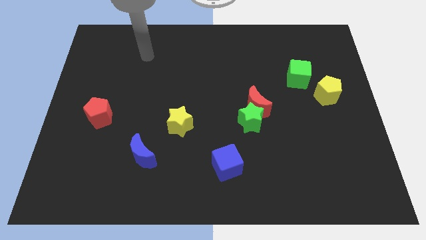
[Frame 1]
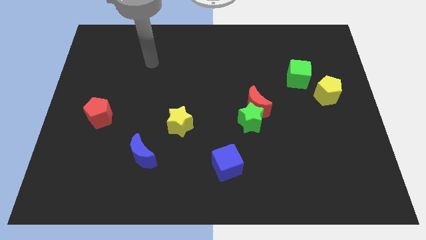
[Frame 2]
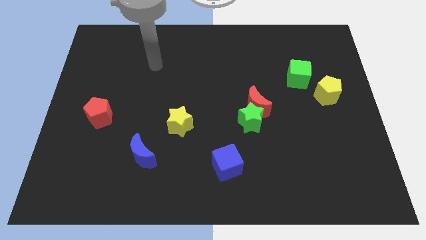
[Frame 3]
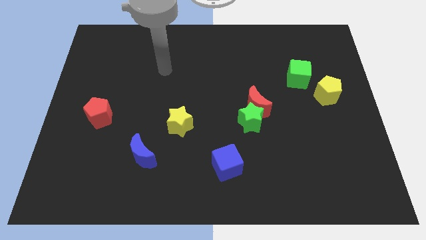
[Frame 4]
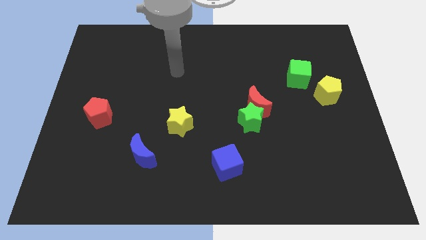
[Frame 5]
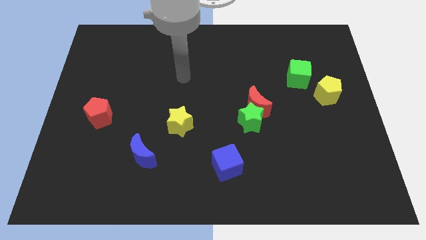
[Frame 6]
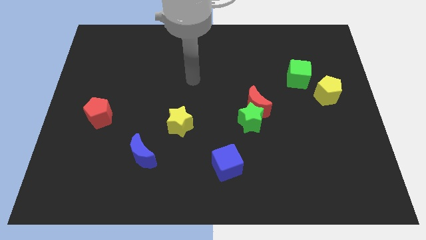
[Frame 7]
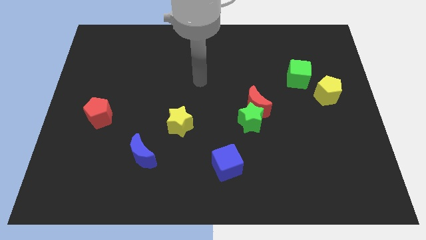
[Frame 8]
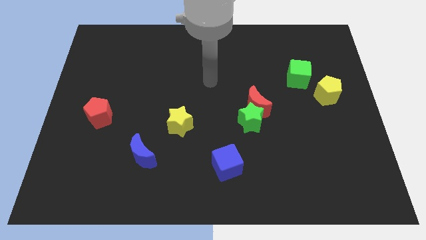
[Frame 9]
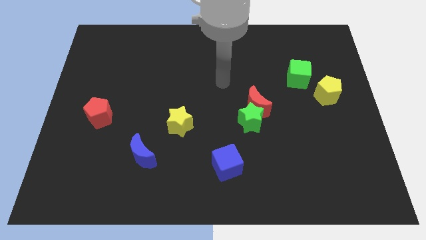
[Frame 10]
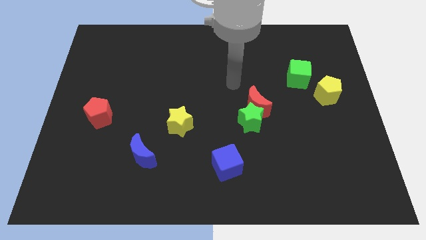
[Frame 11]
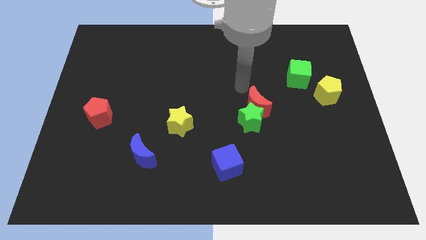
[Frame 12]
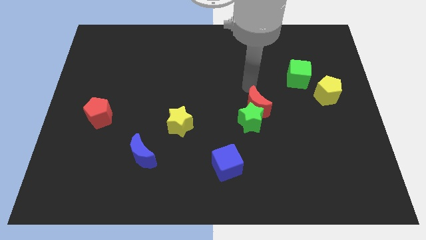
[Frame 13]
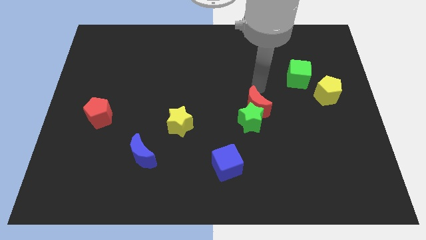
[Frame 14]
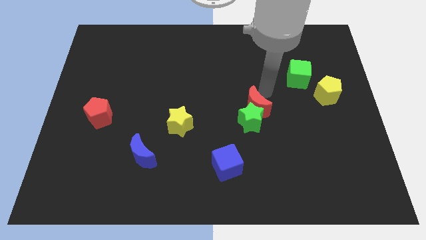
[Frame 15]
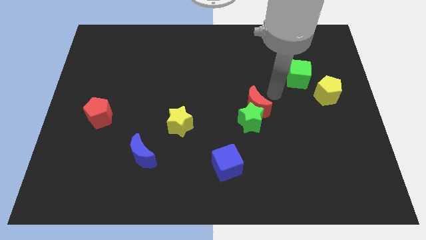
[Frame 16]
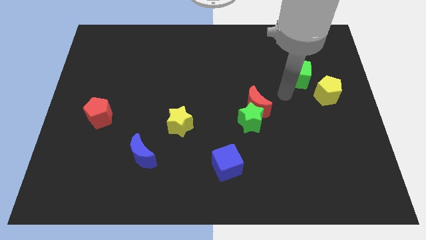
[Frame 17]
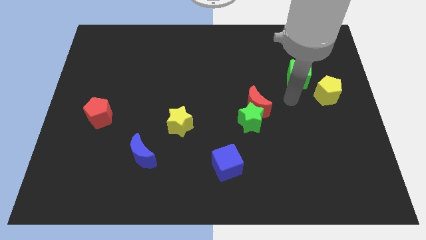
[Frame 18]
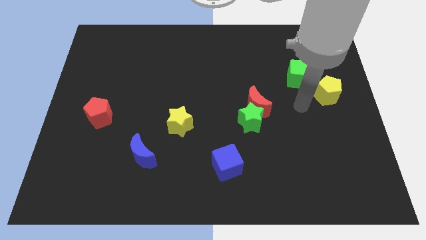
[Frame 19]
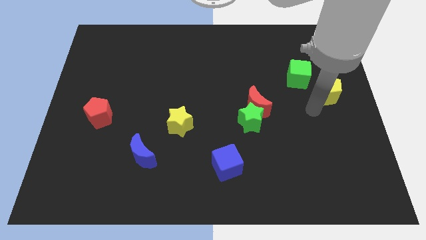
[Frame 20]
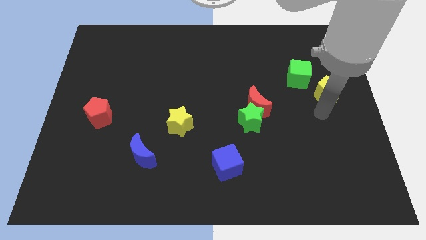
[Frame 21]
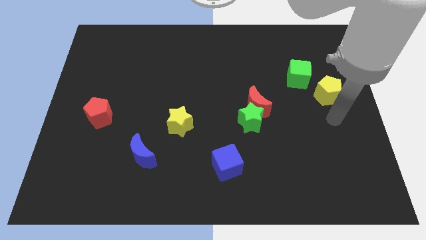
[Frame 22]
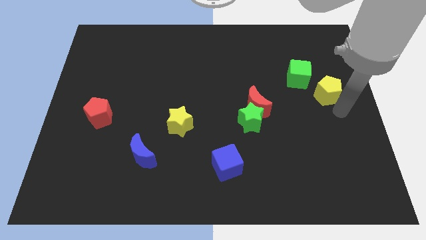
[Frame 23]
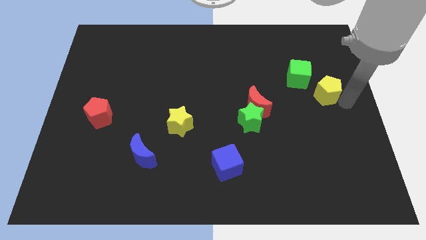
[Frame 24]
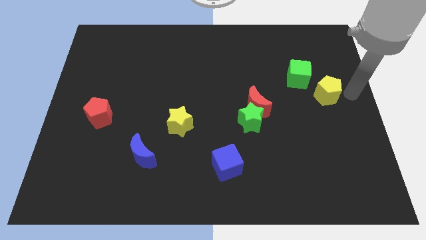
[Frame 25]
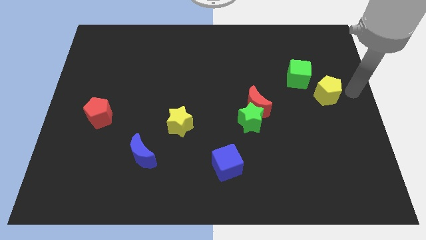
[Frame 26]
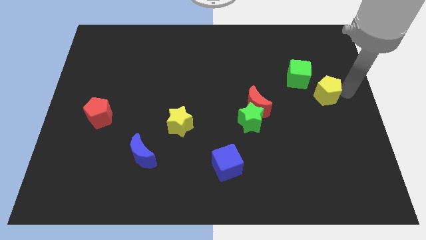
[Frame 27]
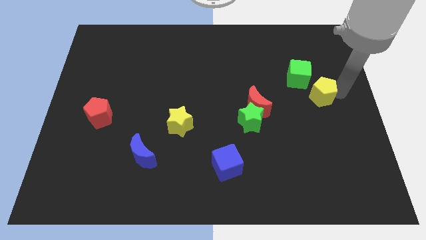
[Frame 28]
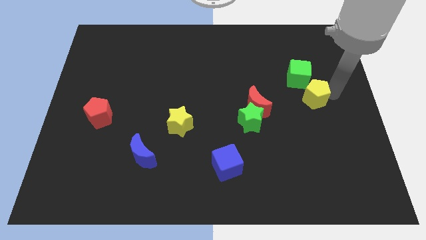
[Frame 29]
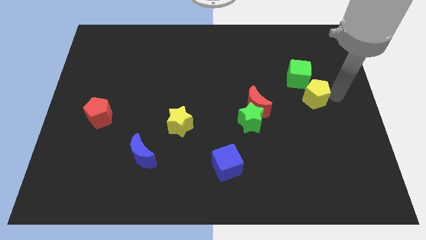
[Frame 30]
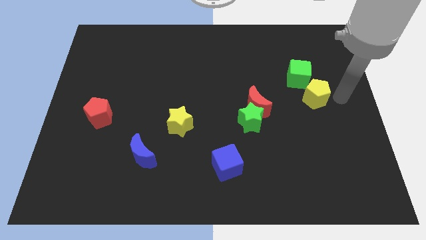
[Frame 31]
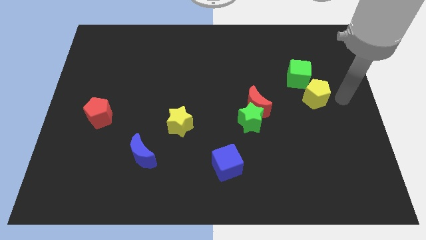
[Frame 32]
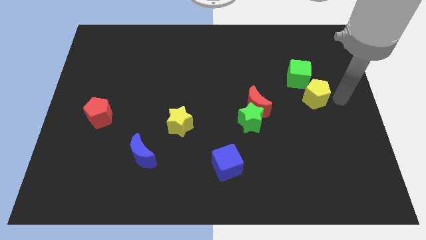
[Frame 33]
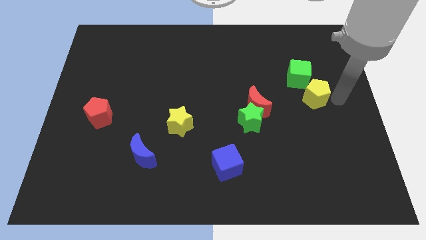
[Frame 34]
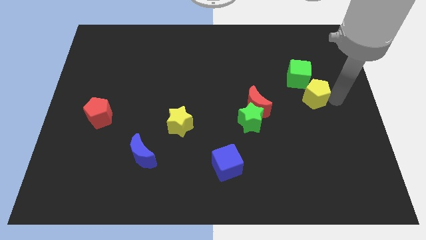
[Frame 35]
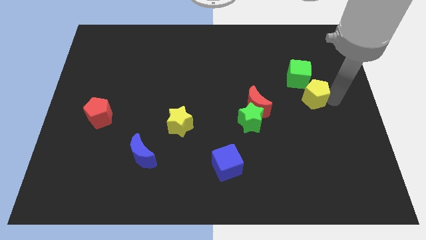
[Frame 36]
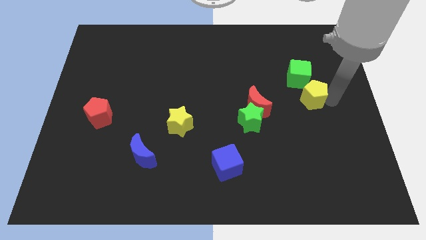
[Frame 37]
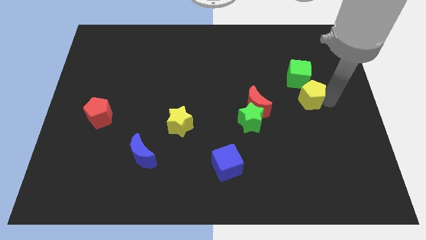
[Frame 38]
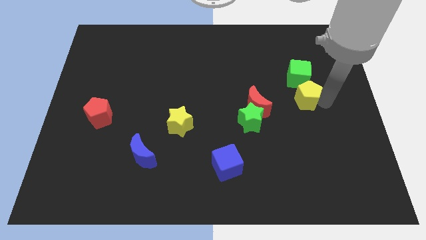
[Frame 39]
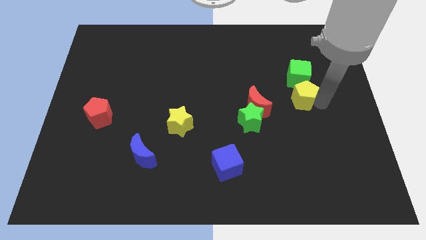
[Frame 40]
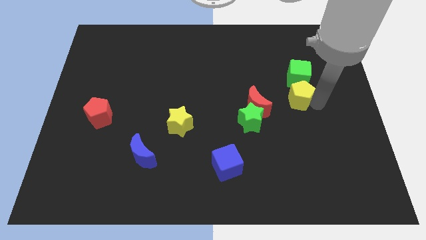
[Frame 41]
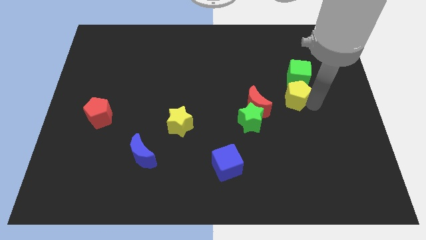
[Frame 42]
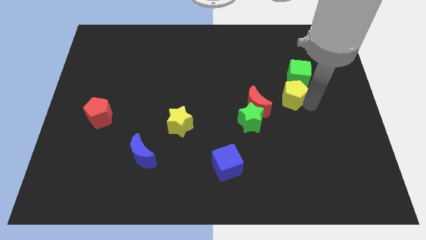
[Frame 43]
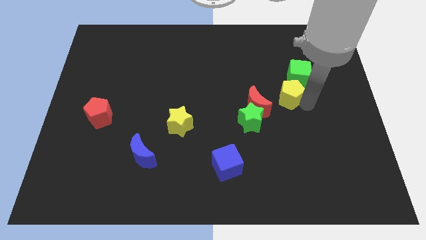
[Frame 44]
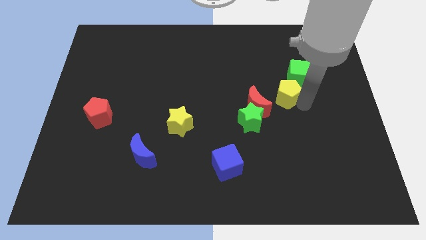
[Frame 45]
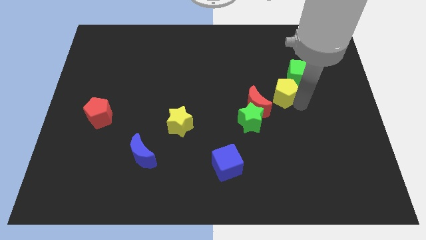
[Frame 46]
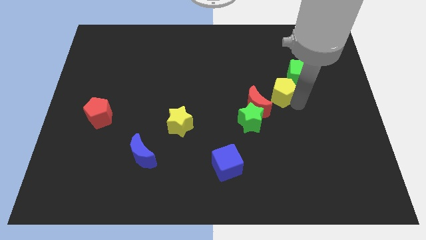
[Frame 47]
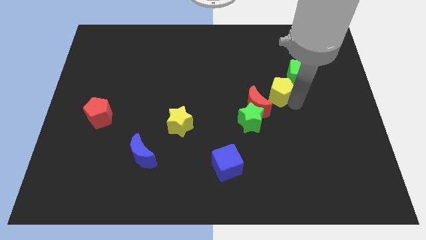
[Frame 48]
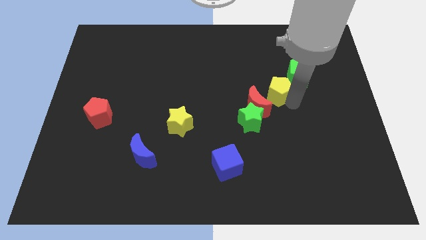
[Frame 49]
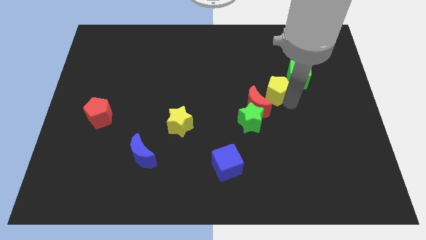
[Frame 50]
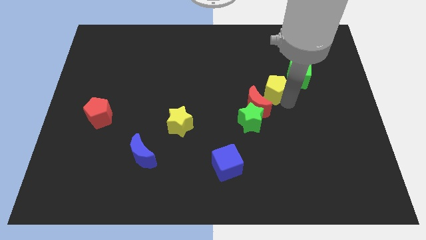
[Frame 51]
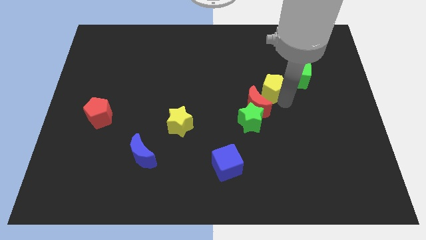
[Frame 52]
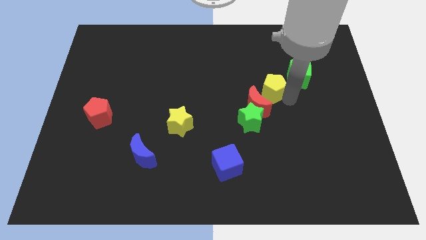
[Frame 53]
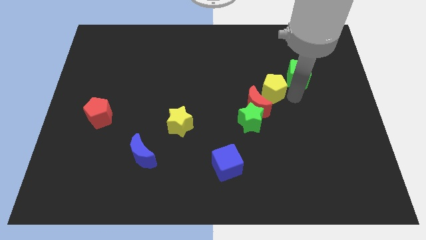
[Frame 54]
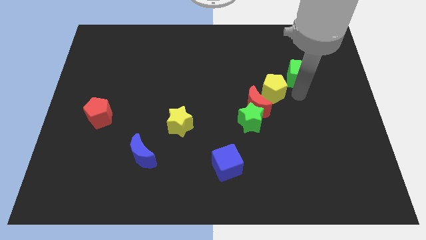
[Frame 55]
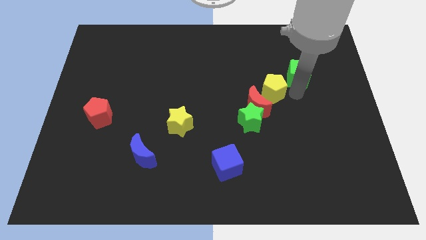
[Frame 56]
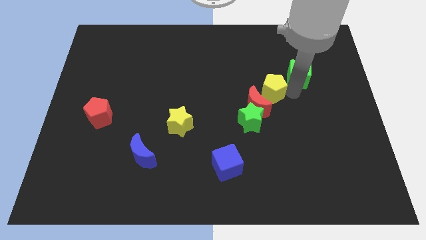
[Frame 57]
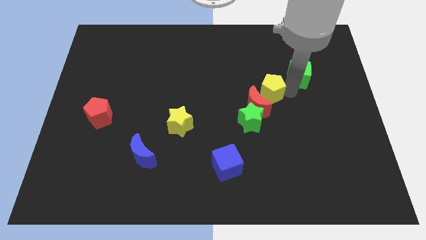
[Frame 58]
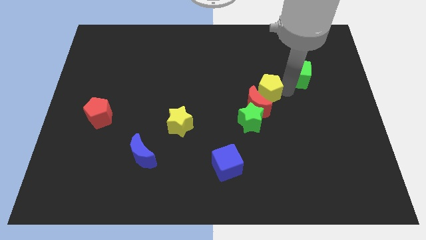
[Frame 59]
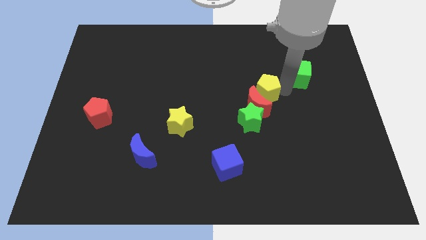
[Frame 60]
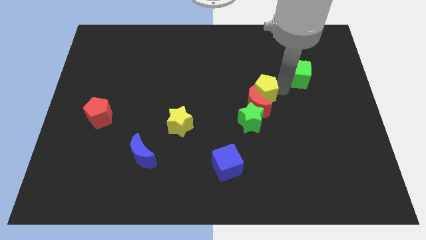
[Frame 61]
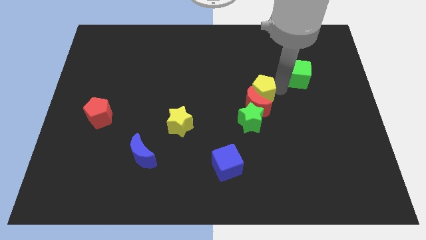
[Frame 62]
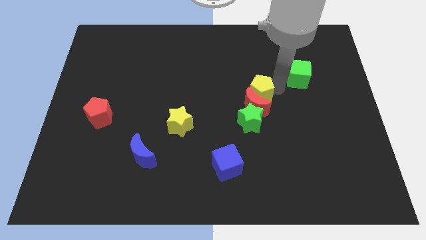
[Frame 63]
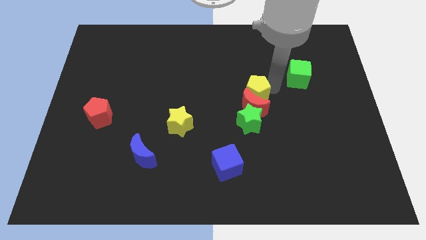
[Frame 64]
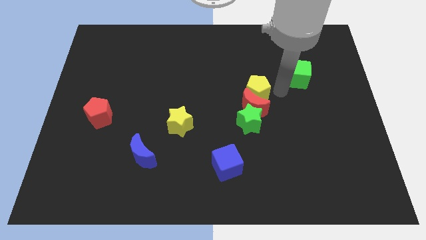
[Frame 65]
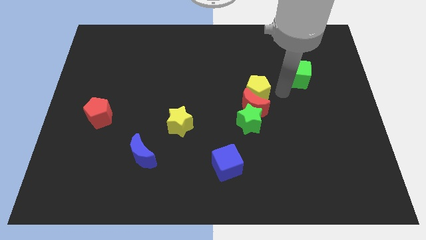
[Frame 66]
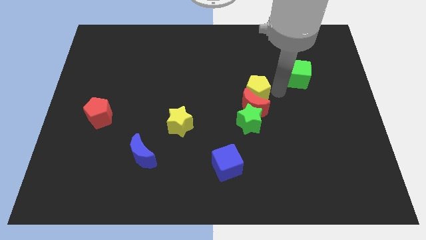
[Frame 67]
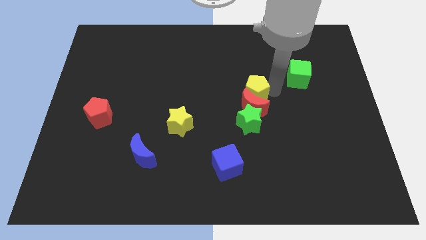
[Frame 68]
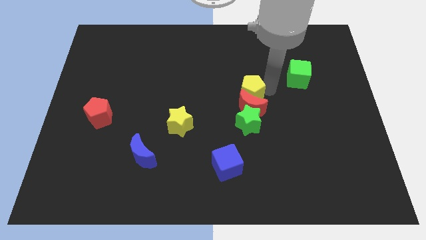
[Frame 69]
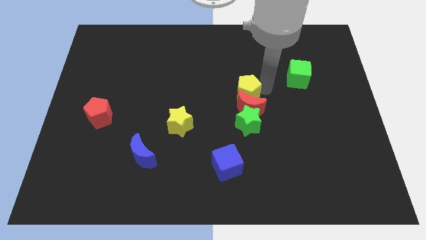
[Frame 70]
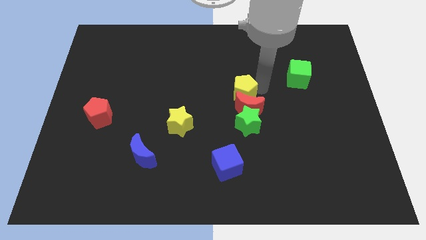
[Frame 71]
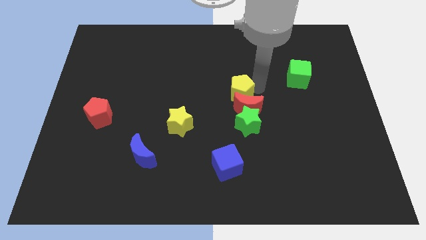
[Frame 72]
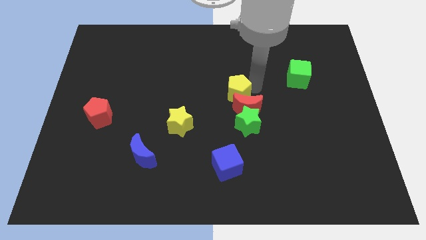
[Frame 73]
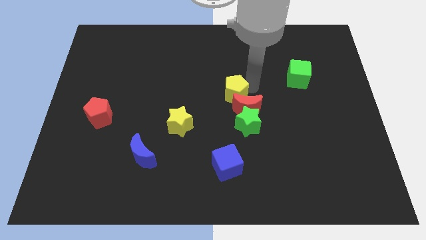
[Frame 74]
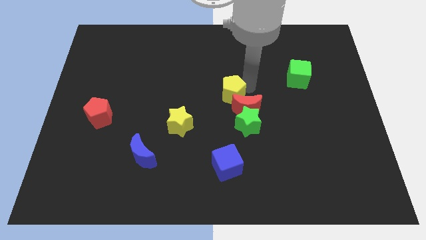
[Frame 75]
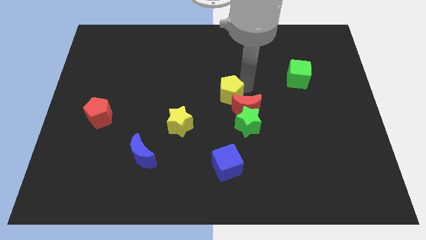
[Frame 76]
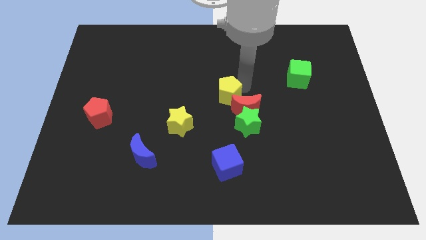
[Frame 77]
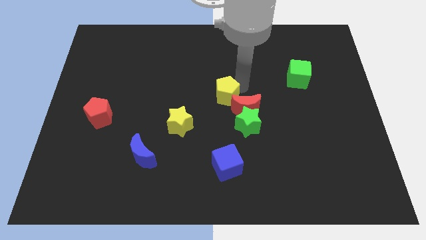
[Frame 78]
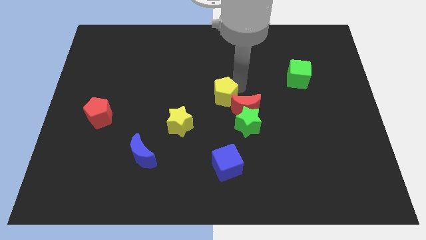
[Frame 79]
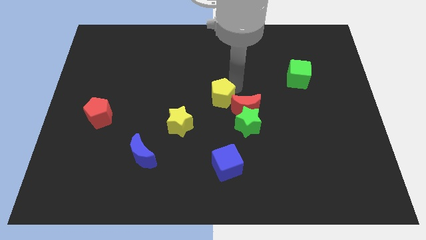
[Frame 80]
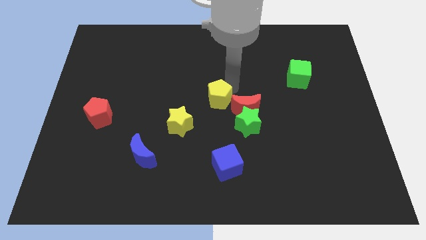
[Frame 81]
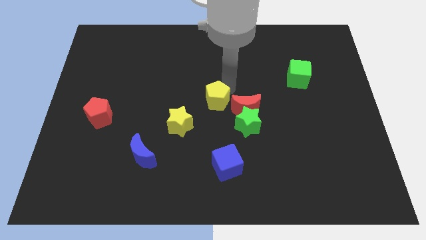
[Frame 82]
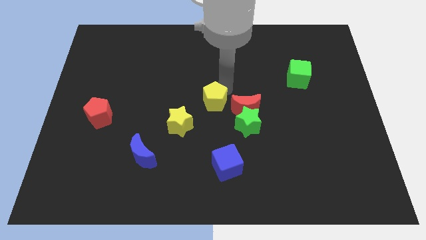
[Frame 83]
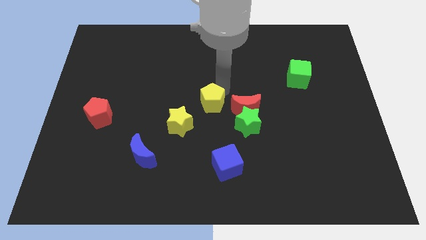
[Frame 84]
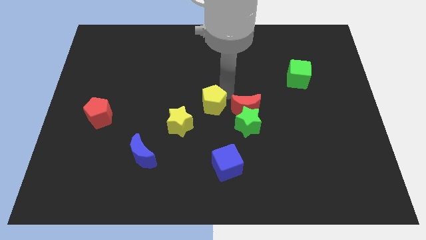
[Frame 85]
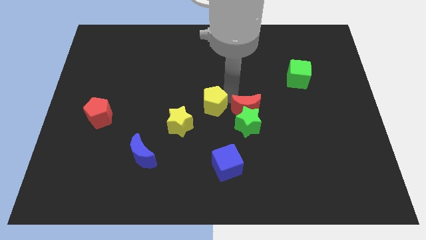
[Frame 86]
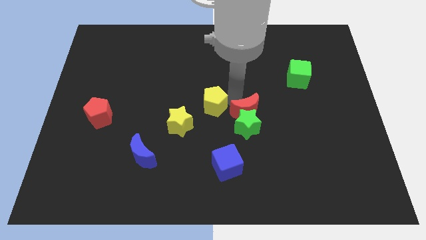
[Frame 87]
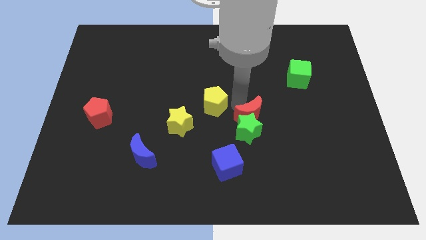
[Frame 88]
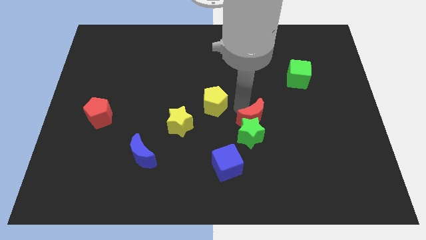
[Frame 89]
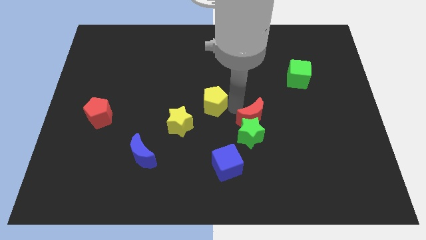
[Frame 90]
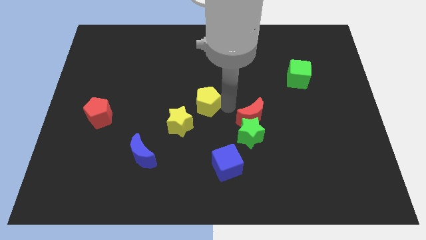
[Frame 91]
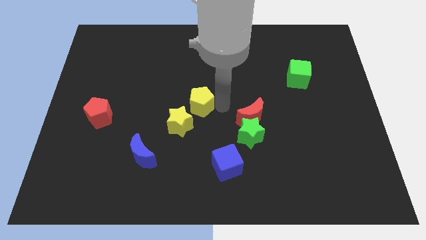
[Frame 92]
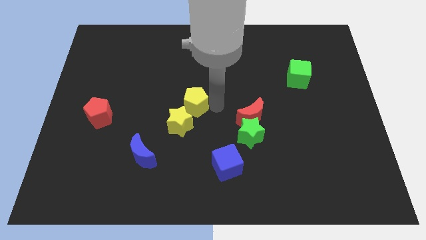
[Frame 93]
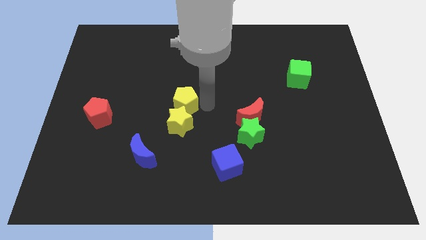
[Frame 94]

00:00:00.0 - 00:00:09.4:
push the yellow pentagon diagonally up and to the left of the yellow star
